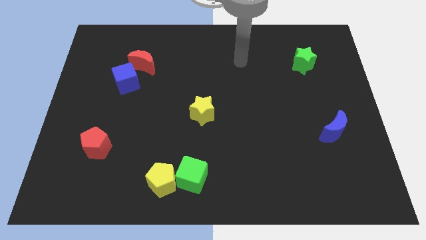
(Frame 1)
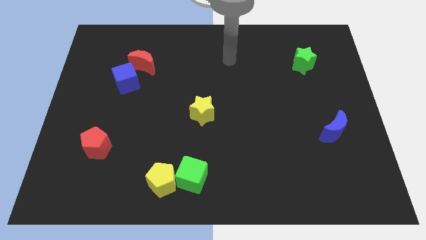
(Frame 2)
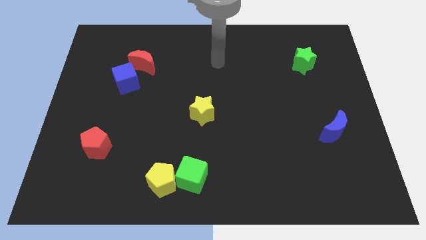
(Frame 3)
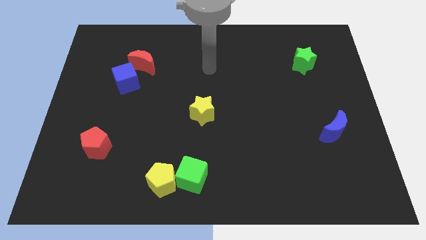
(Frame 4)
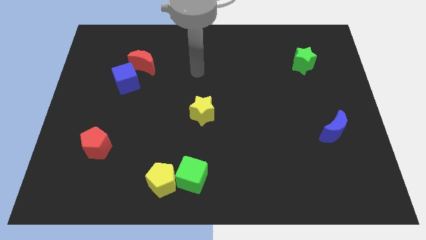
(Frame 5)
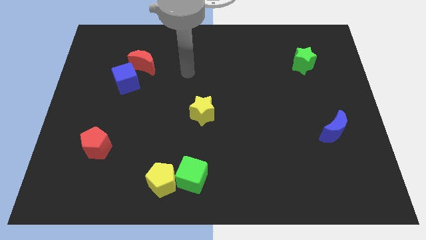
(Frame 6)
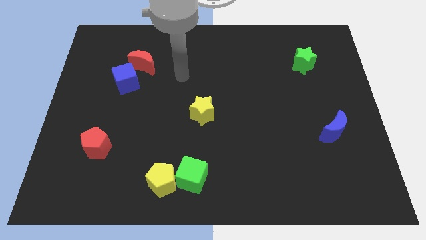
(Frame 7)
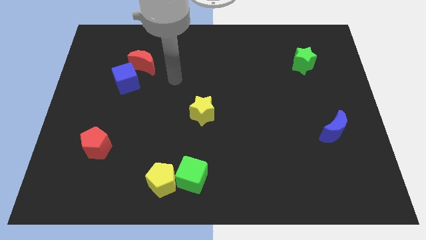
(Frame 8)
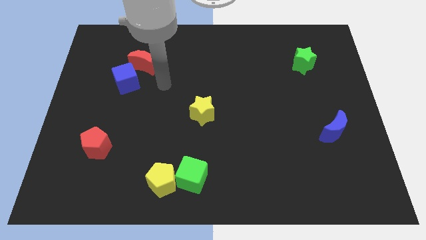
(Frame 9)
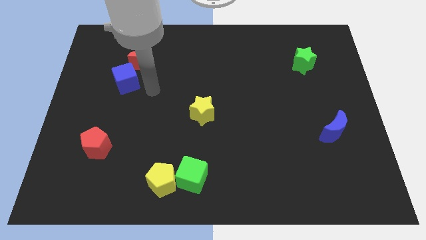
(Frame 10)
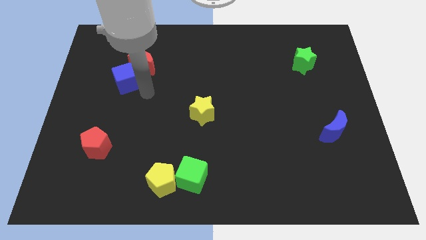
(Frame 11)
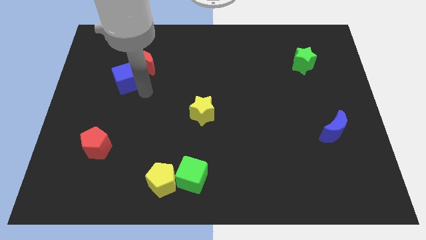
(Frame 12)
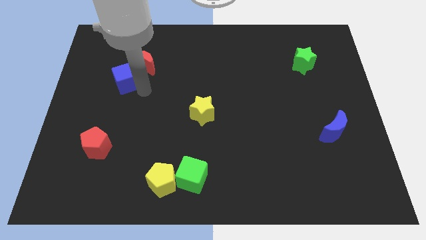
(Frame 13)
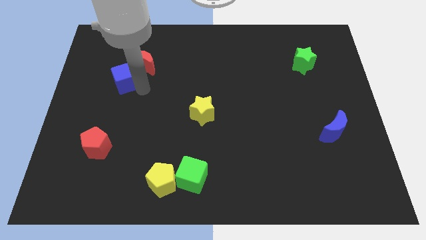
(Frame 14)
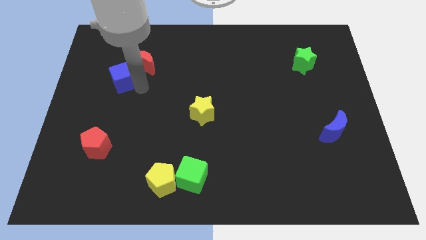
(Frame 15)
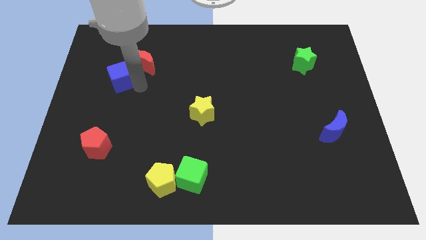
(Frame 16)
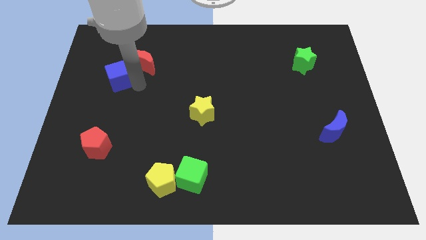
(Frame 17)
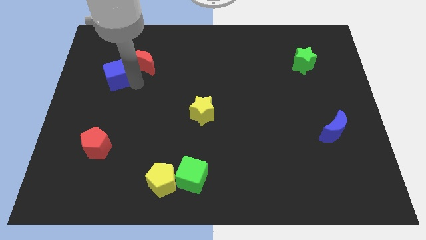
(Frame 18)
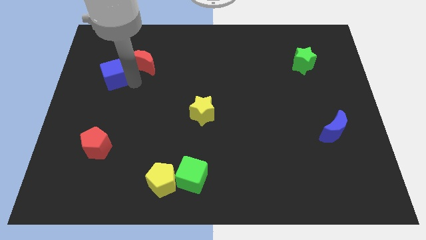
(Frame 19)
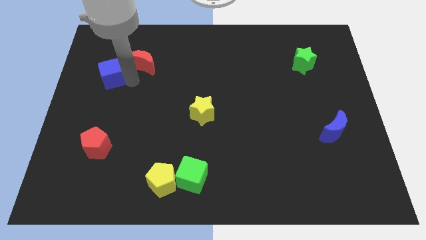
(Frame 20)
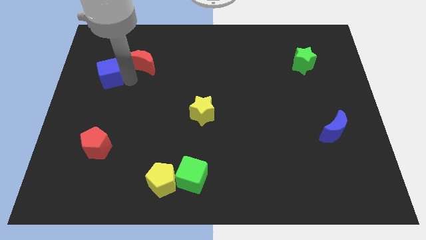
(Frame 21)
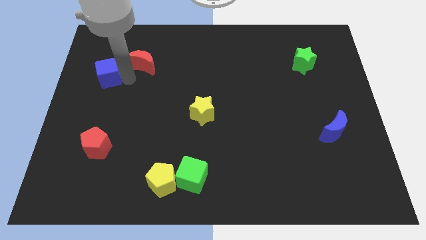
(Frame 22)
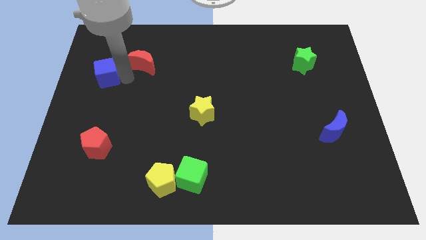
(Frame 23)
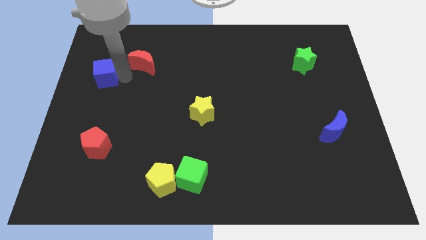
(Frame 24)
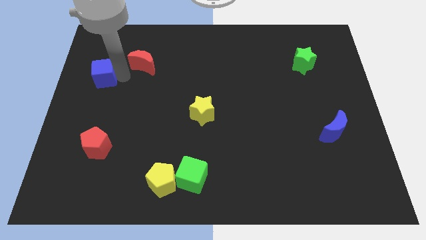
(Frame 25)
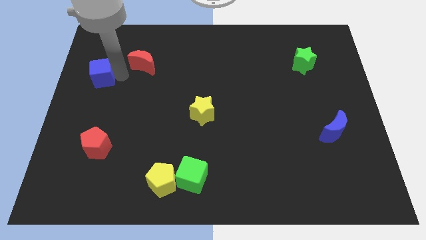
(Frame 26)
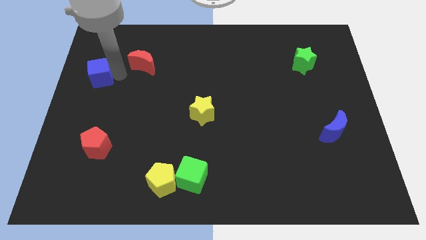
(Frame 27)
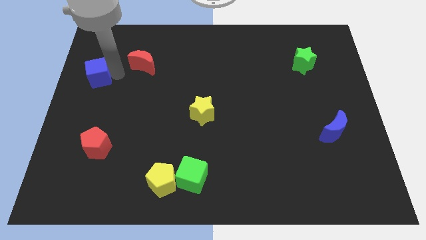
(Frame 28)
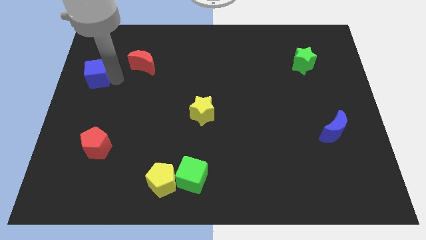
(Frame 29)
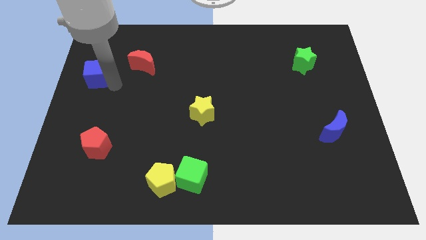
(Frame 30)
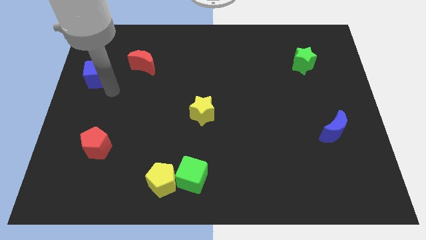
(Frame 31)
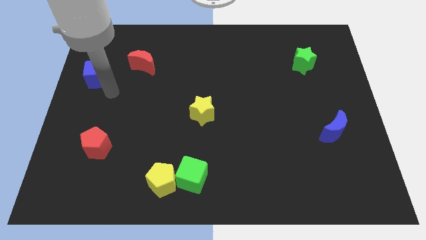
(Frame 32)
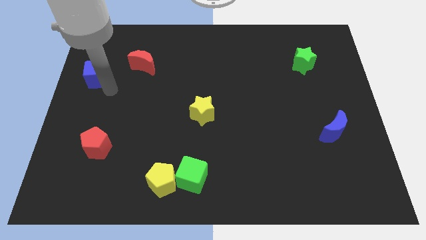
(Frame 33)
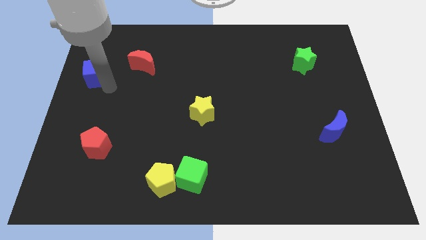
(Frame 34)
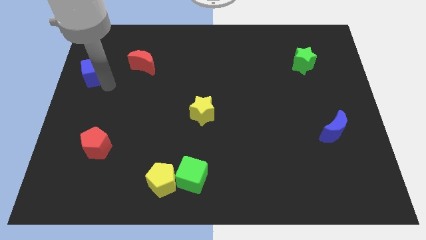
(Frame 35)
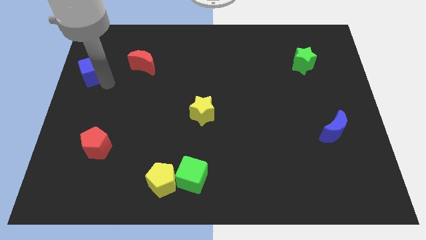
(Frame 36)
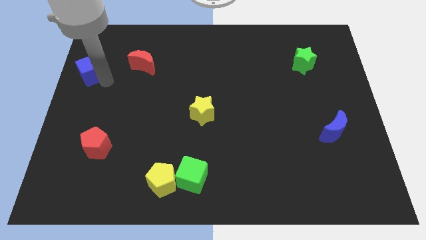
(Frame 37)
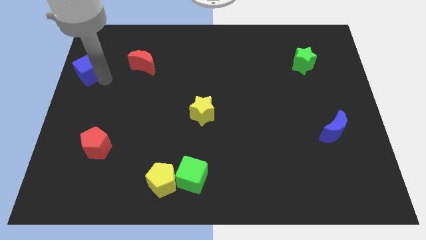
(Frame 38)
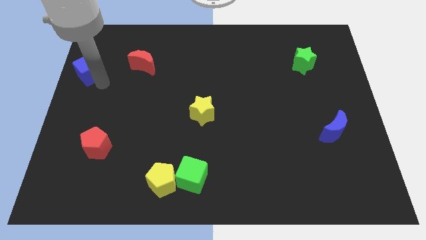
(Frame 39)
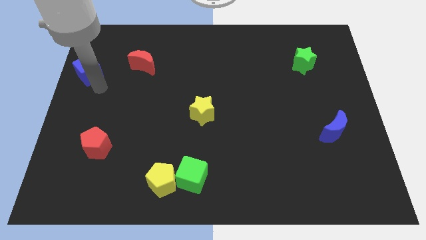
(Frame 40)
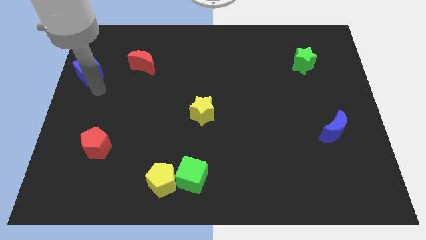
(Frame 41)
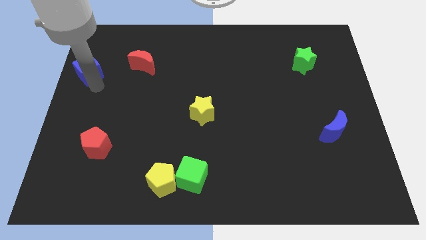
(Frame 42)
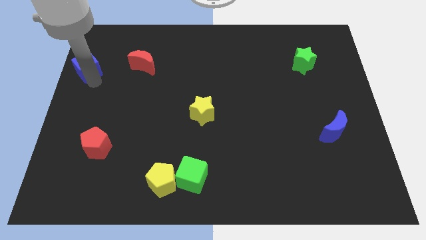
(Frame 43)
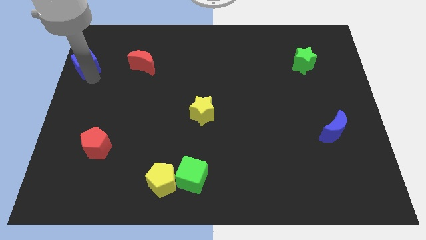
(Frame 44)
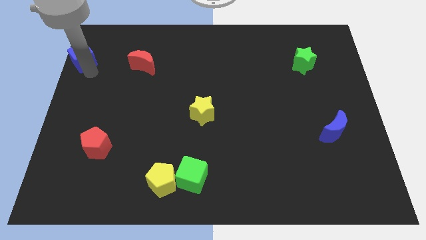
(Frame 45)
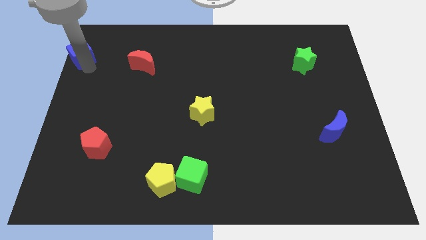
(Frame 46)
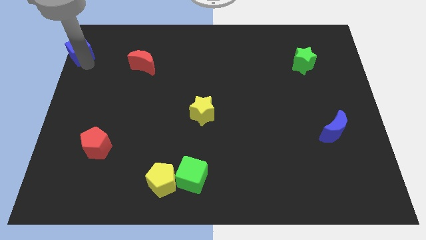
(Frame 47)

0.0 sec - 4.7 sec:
slide the blue cube to the top left corner

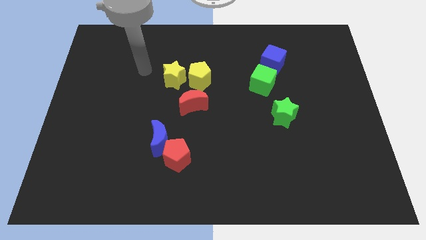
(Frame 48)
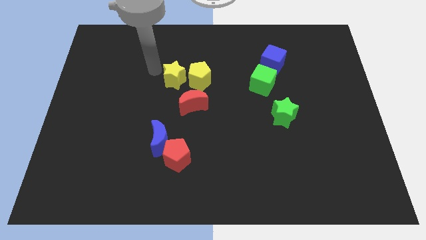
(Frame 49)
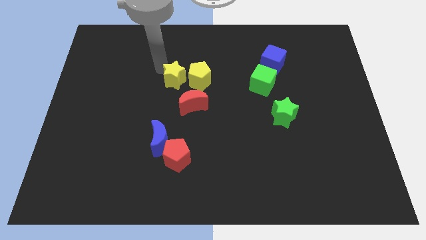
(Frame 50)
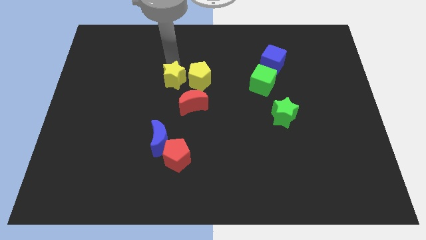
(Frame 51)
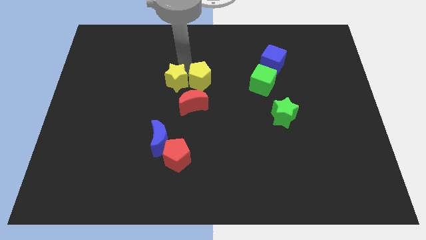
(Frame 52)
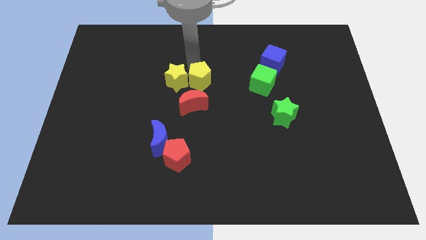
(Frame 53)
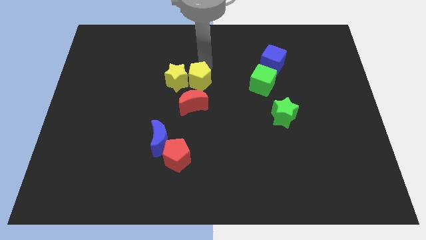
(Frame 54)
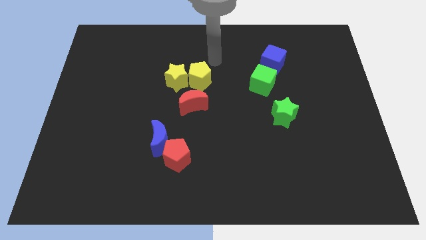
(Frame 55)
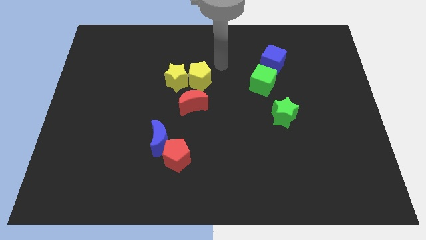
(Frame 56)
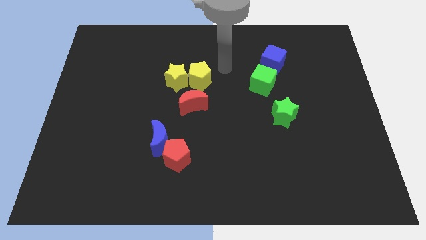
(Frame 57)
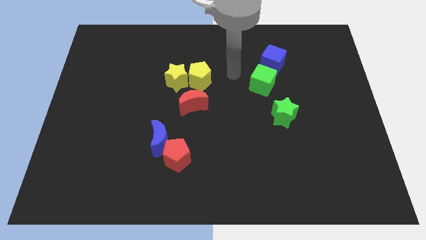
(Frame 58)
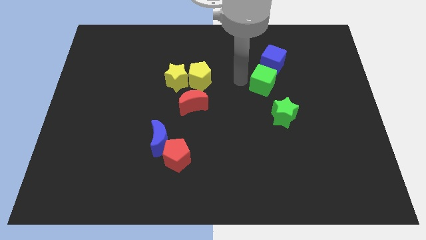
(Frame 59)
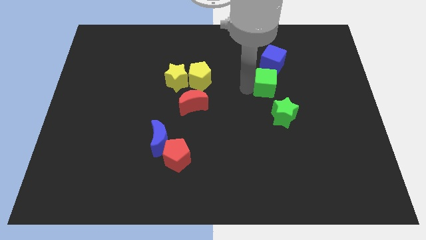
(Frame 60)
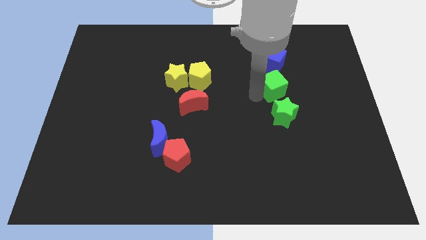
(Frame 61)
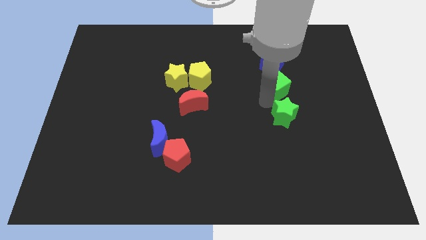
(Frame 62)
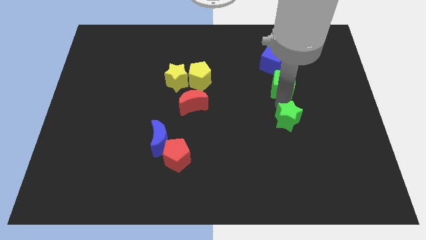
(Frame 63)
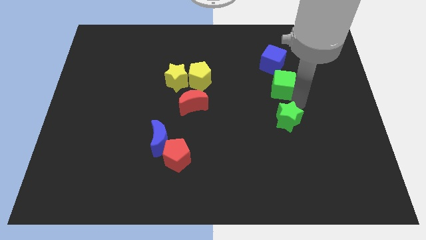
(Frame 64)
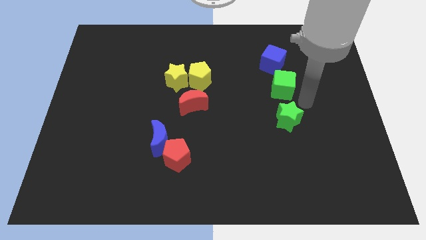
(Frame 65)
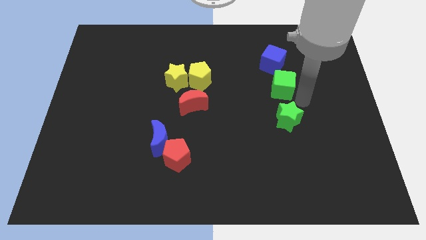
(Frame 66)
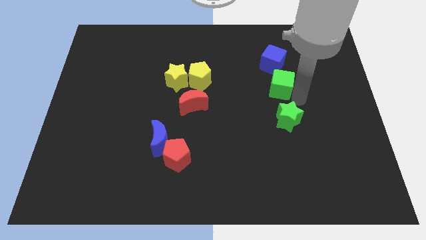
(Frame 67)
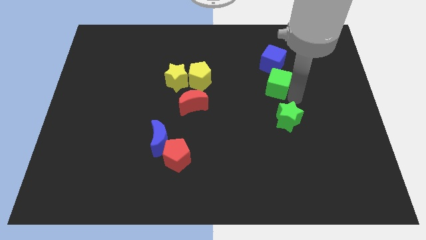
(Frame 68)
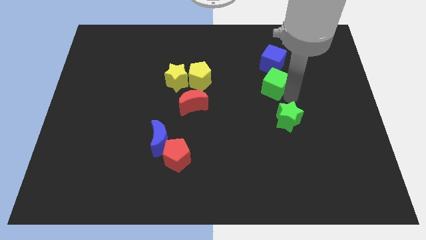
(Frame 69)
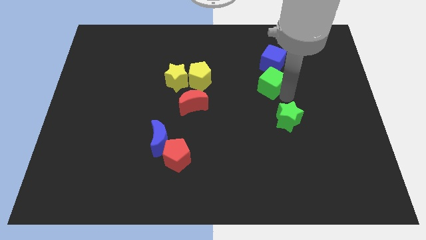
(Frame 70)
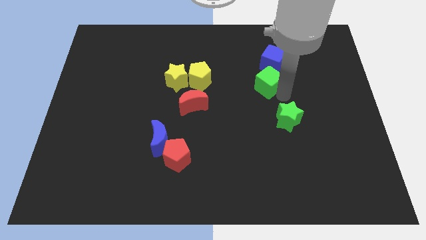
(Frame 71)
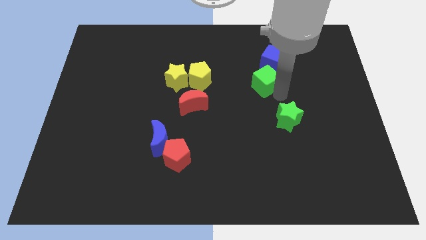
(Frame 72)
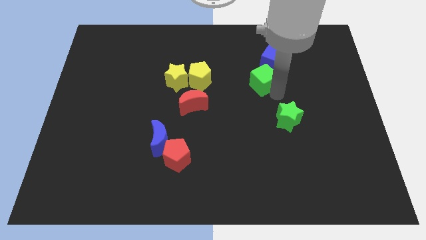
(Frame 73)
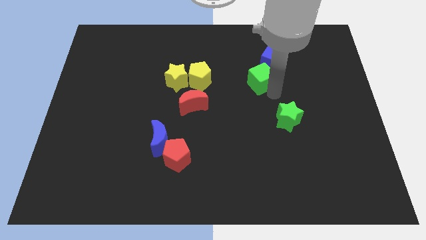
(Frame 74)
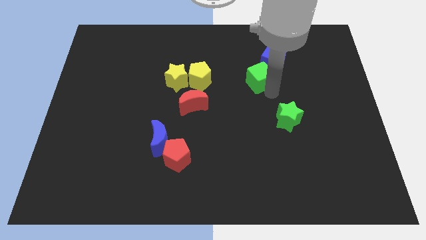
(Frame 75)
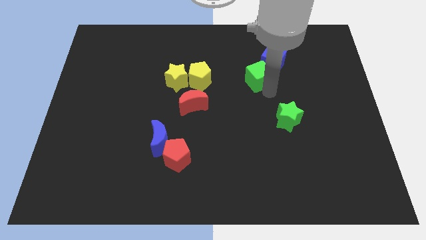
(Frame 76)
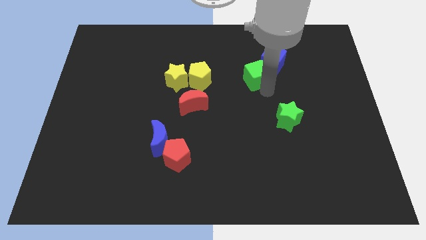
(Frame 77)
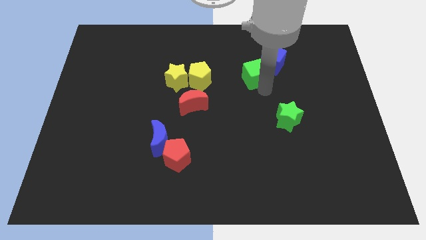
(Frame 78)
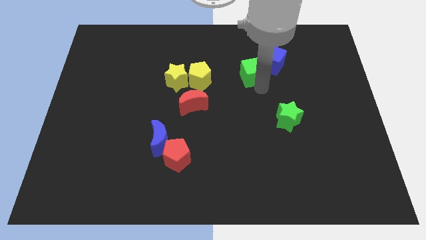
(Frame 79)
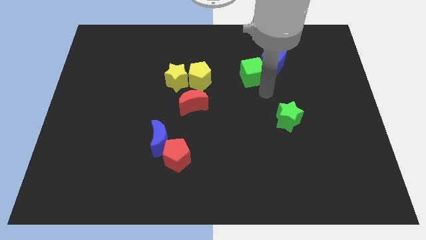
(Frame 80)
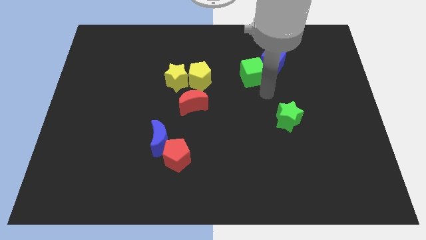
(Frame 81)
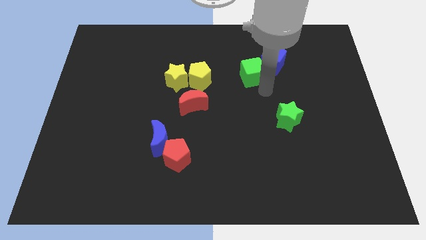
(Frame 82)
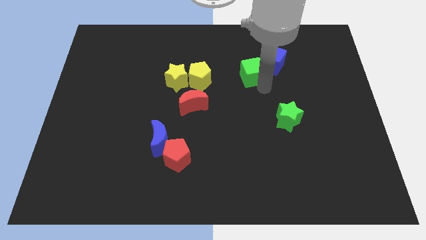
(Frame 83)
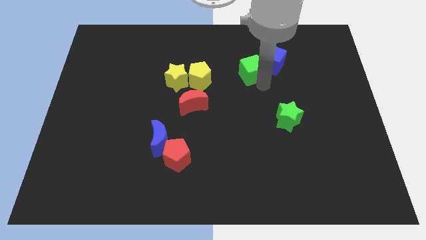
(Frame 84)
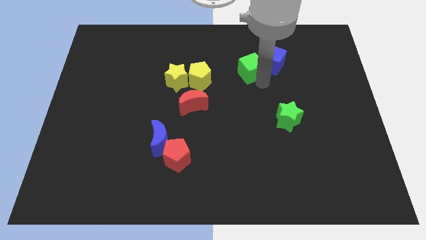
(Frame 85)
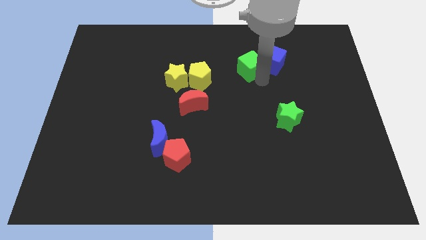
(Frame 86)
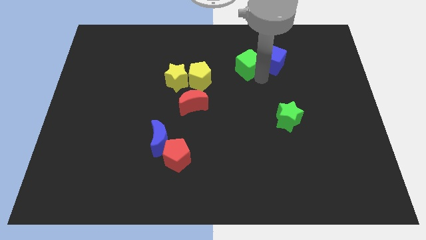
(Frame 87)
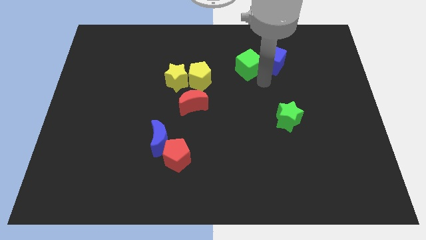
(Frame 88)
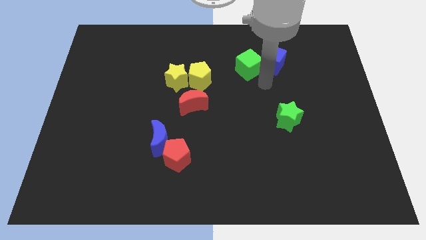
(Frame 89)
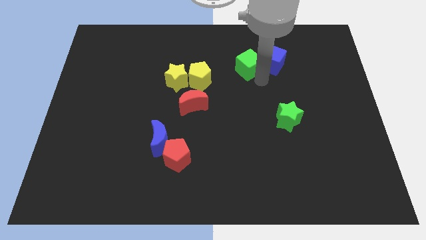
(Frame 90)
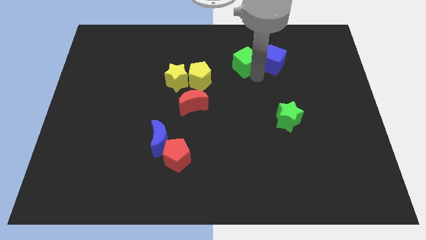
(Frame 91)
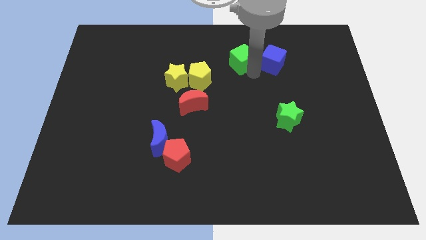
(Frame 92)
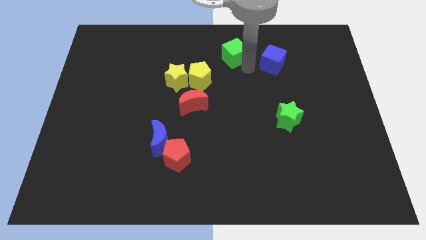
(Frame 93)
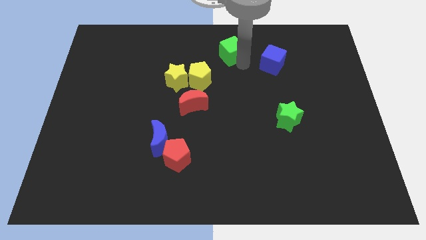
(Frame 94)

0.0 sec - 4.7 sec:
push the green cube to the towards your base
